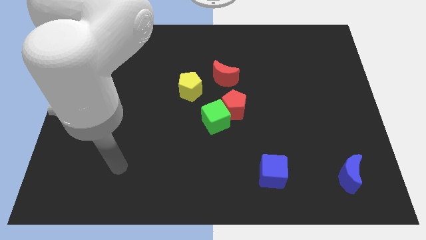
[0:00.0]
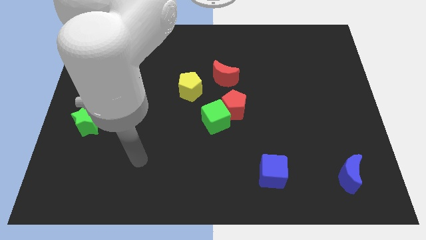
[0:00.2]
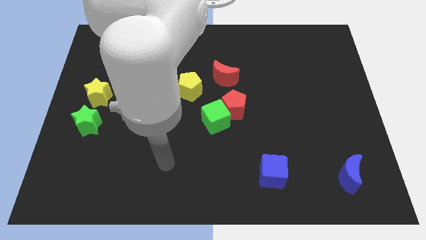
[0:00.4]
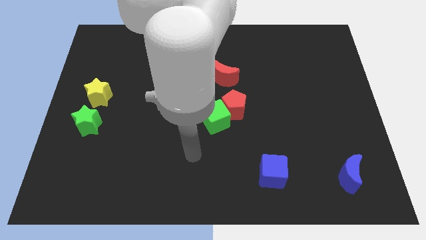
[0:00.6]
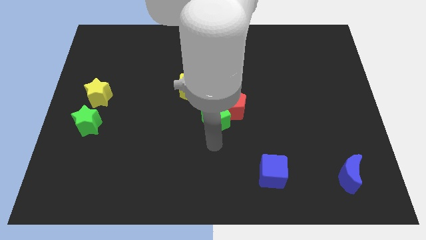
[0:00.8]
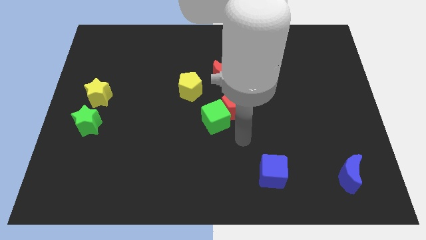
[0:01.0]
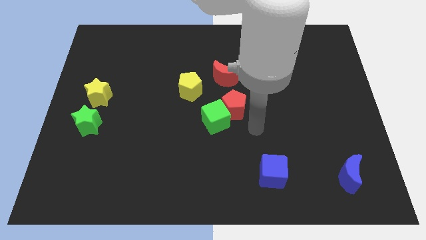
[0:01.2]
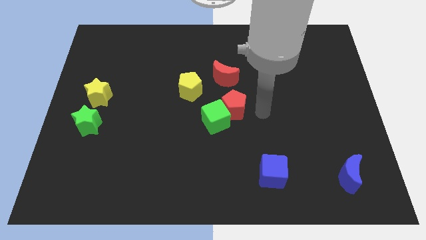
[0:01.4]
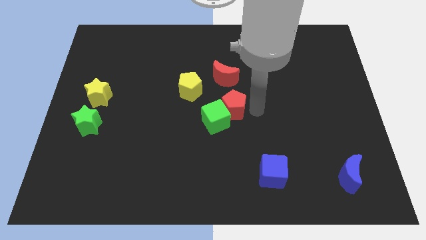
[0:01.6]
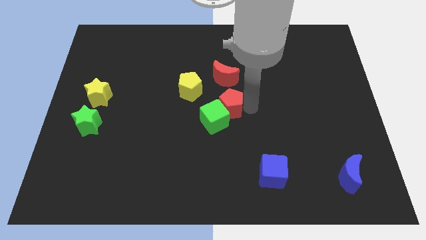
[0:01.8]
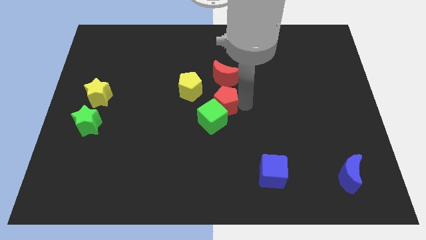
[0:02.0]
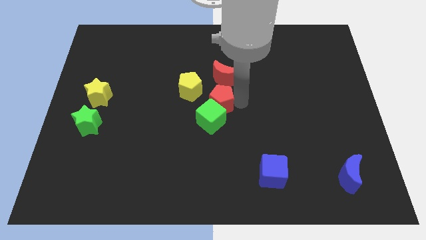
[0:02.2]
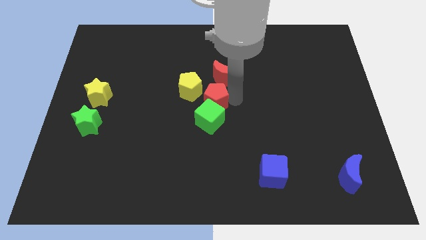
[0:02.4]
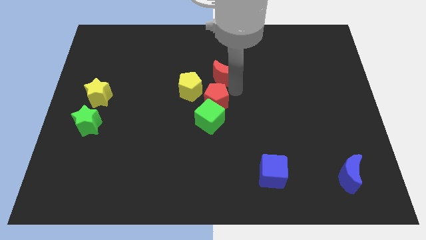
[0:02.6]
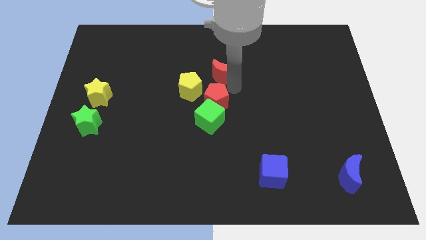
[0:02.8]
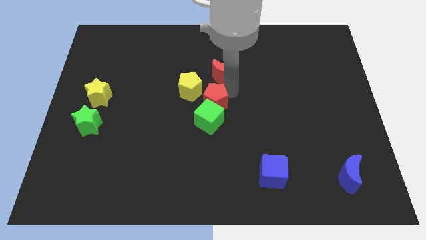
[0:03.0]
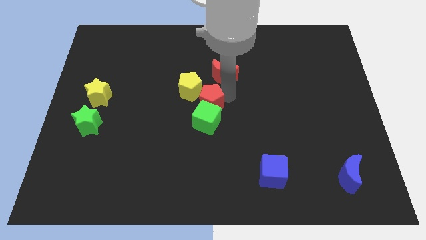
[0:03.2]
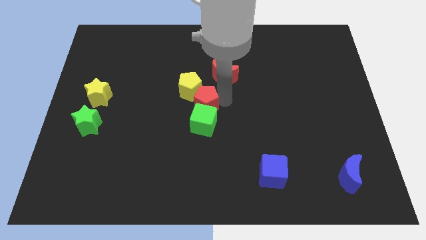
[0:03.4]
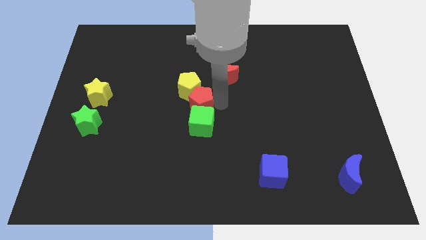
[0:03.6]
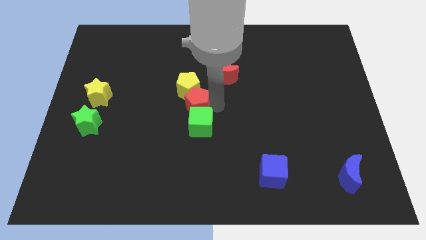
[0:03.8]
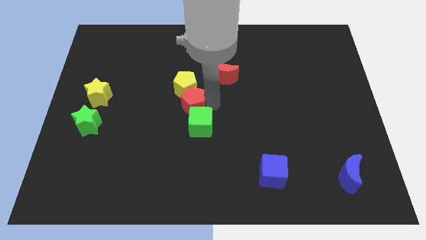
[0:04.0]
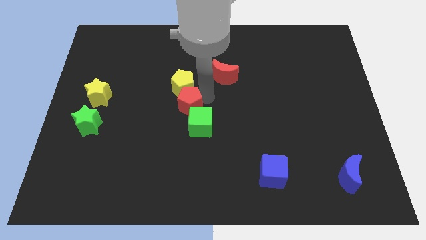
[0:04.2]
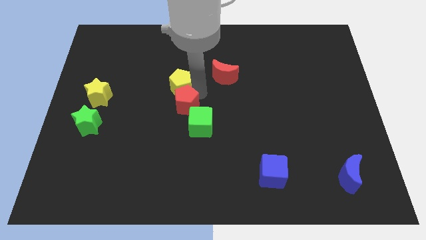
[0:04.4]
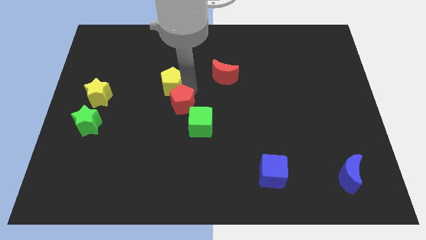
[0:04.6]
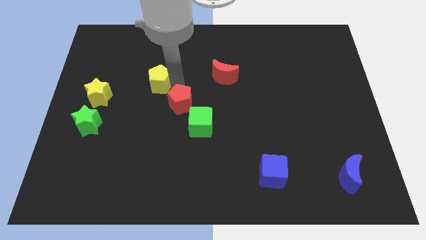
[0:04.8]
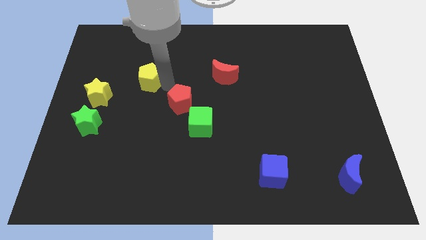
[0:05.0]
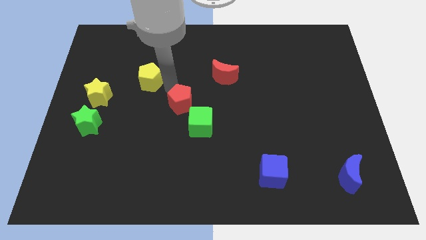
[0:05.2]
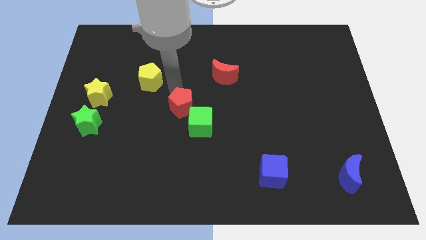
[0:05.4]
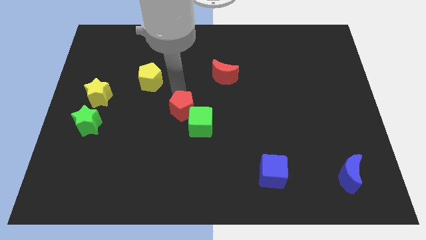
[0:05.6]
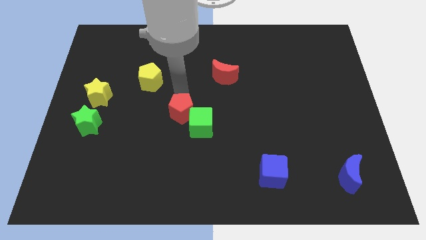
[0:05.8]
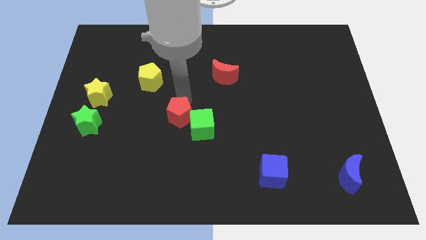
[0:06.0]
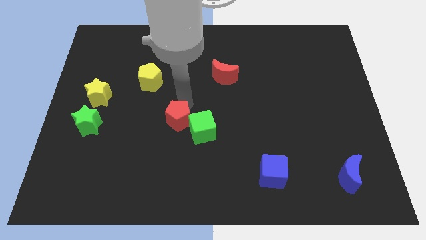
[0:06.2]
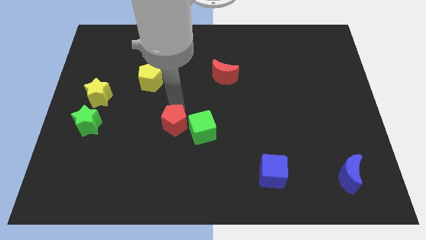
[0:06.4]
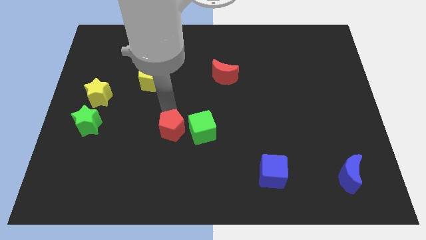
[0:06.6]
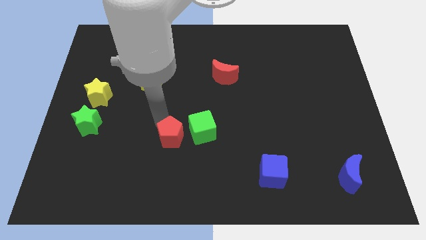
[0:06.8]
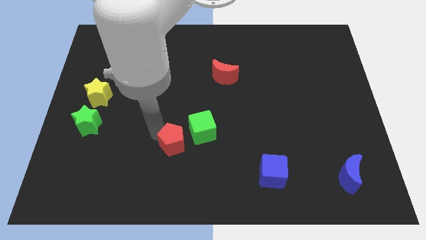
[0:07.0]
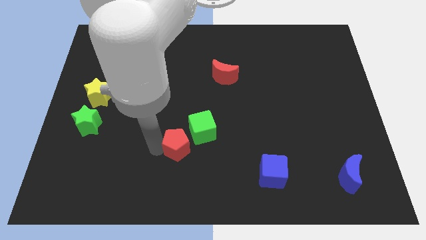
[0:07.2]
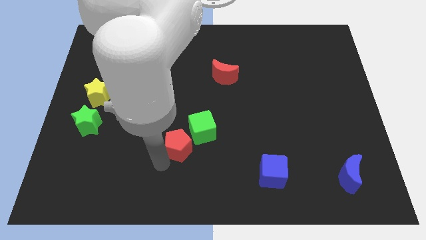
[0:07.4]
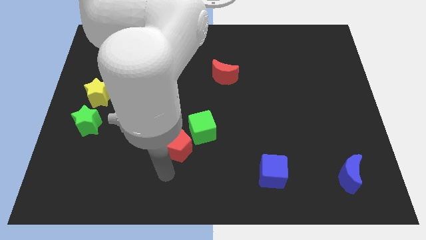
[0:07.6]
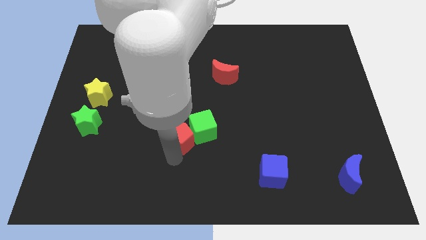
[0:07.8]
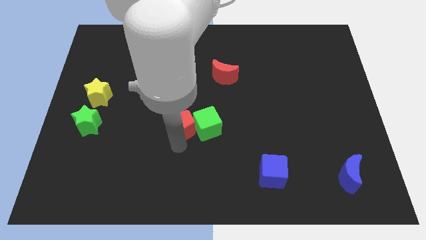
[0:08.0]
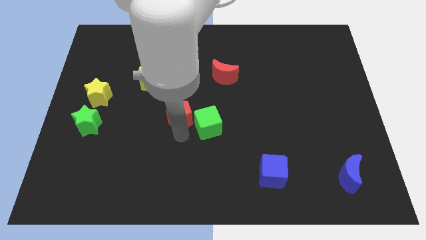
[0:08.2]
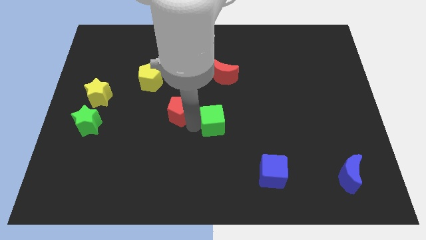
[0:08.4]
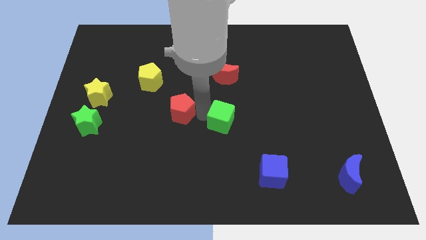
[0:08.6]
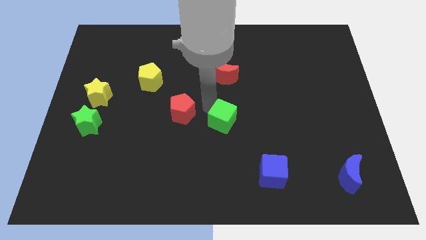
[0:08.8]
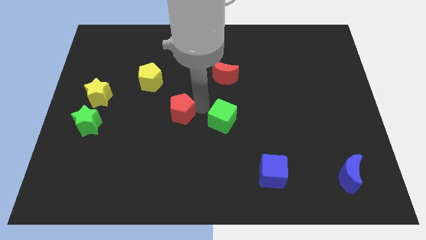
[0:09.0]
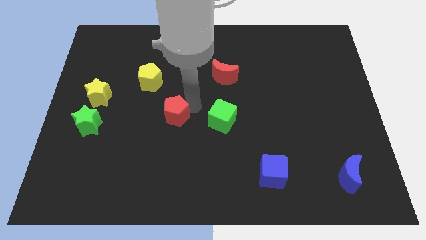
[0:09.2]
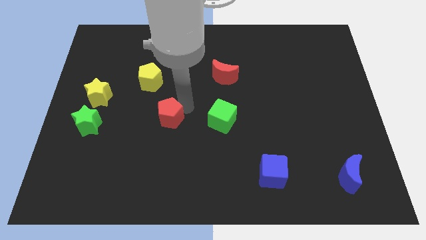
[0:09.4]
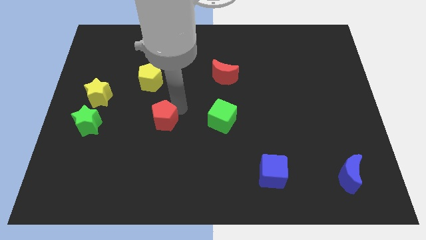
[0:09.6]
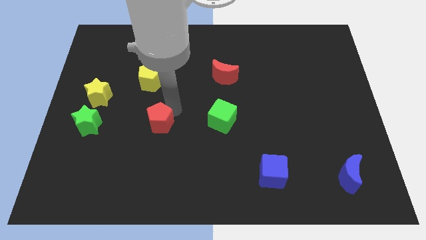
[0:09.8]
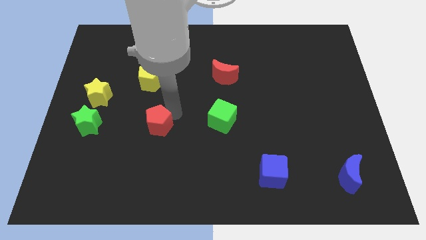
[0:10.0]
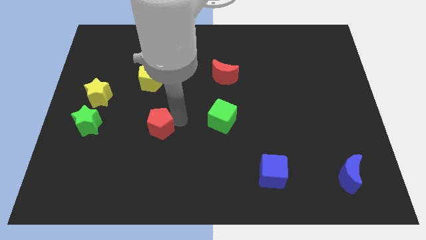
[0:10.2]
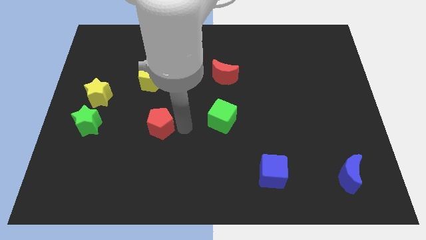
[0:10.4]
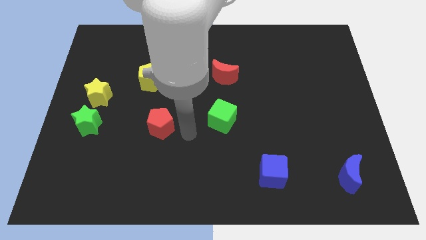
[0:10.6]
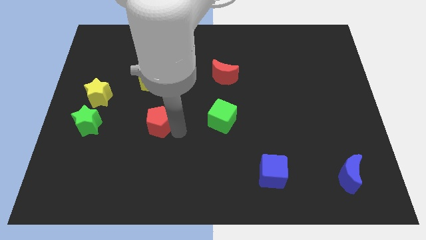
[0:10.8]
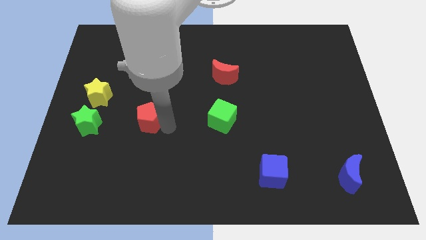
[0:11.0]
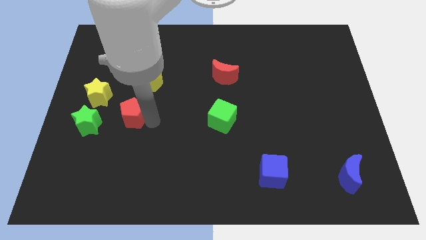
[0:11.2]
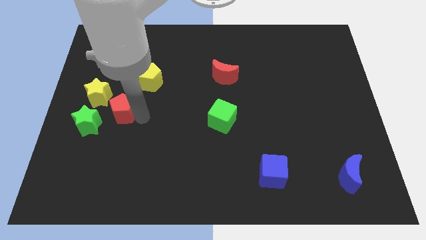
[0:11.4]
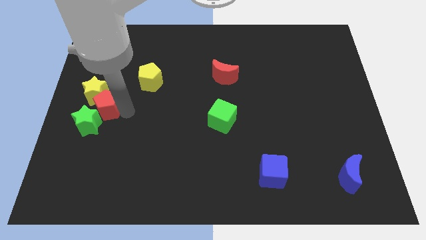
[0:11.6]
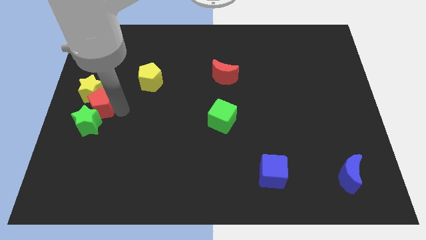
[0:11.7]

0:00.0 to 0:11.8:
slide the red pentagon to the left side of the board

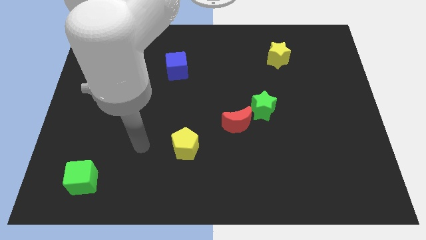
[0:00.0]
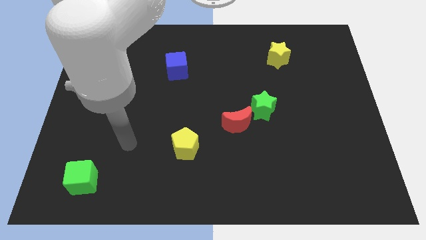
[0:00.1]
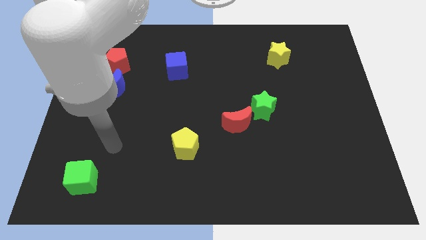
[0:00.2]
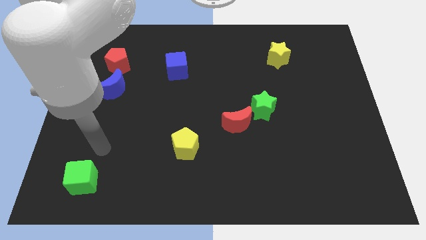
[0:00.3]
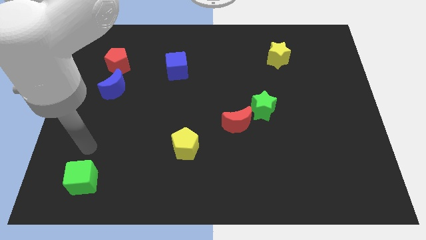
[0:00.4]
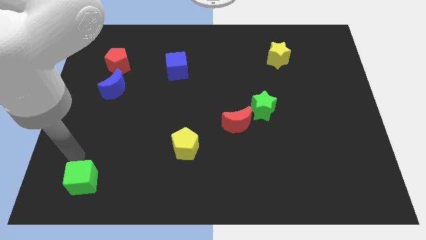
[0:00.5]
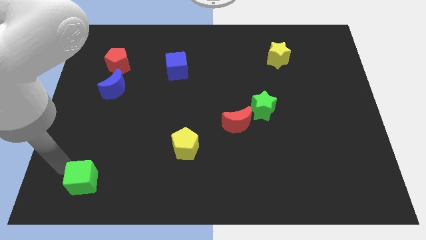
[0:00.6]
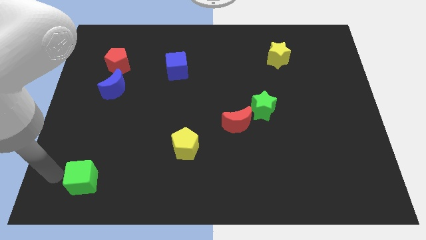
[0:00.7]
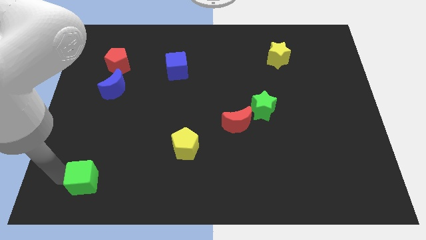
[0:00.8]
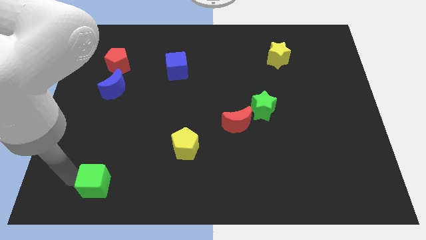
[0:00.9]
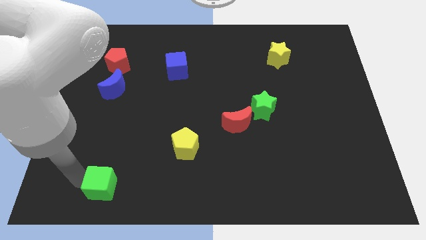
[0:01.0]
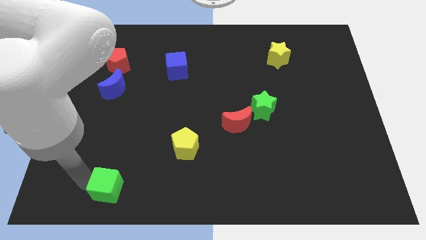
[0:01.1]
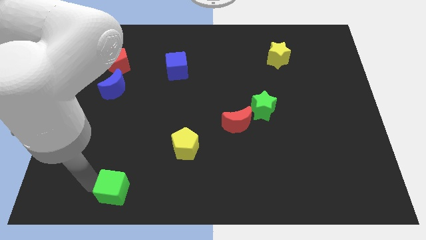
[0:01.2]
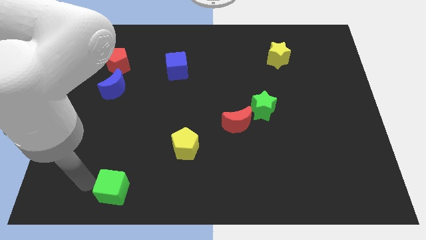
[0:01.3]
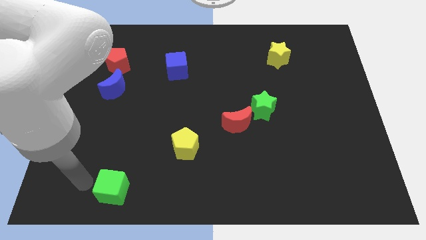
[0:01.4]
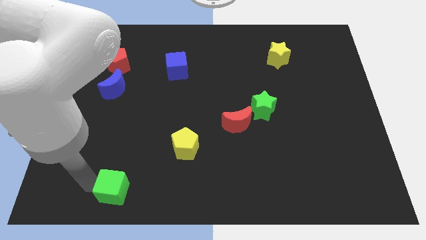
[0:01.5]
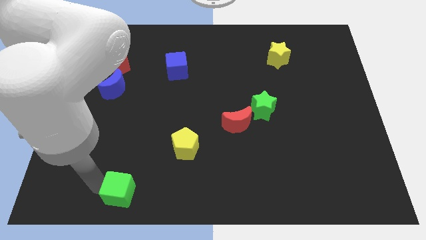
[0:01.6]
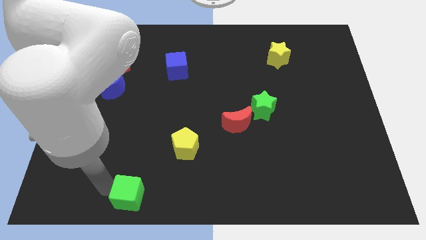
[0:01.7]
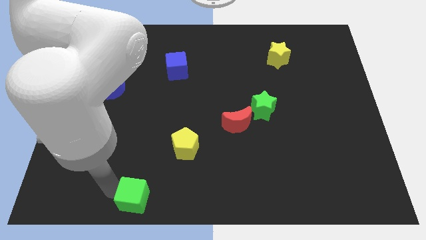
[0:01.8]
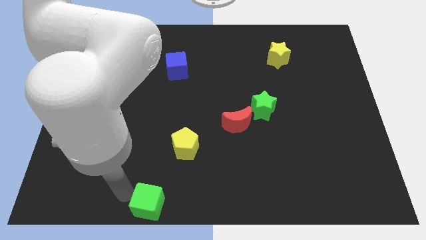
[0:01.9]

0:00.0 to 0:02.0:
push the green cube to the bottom side
